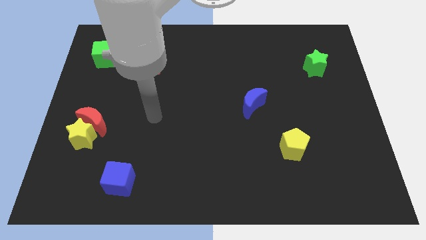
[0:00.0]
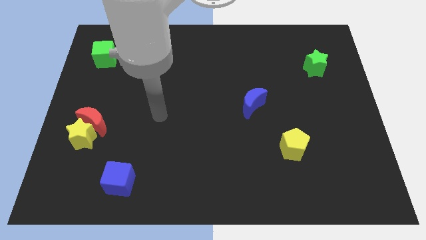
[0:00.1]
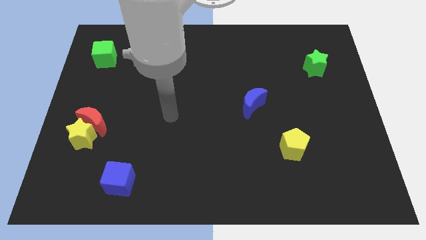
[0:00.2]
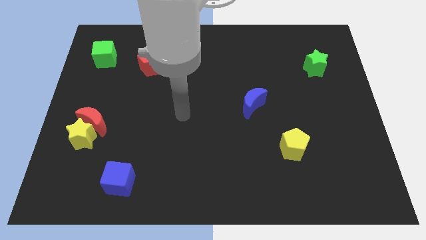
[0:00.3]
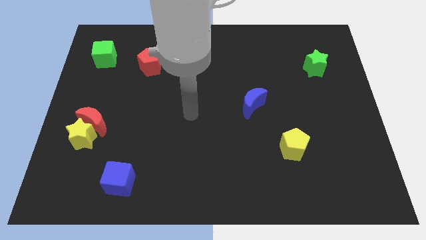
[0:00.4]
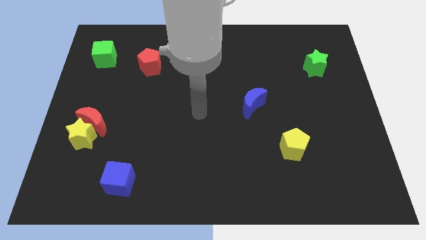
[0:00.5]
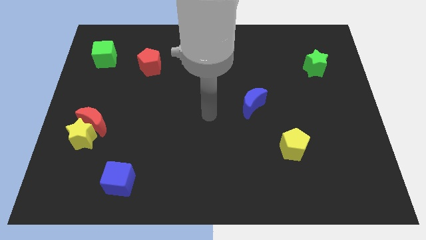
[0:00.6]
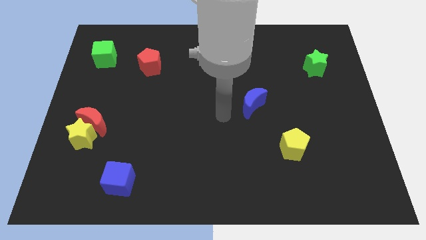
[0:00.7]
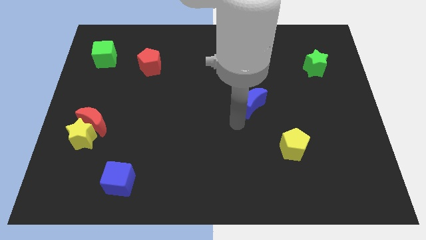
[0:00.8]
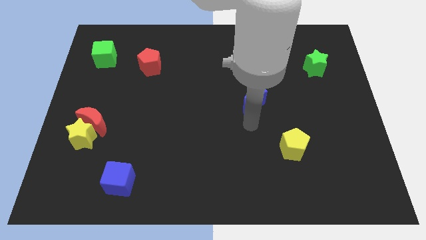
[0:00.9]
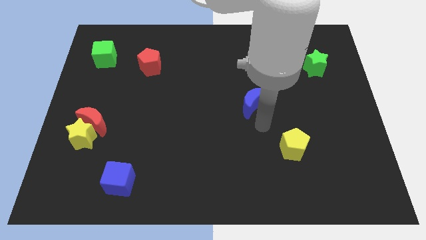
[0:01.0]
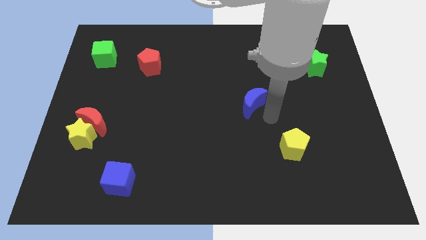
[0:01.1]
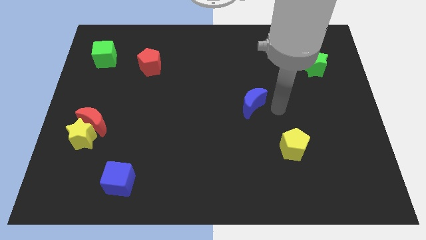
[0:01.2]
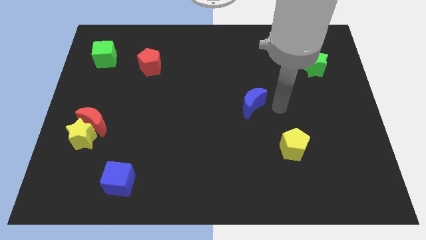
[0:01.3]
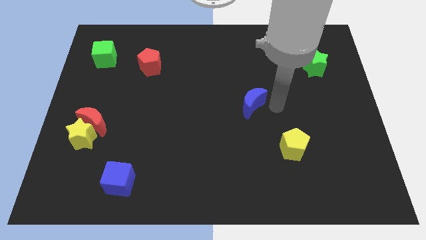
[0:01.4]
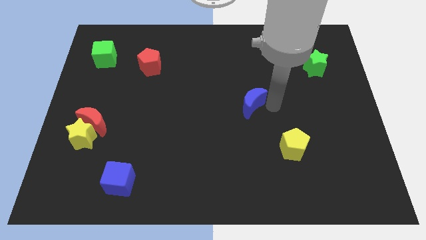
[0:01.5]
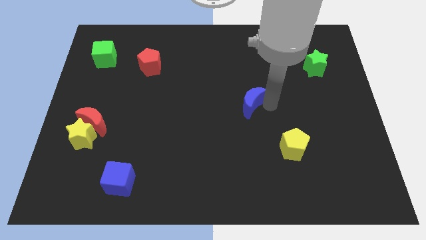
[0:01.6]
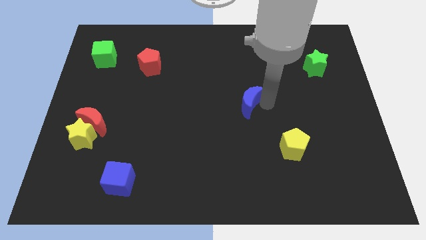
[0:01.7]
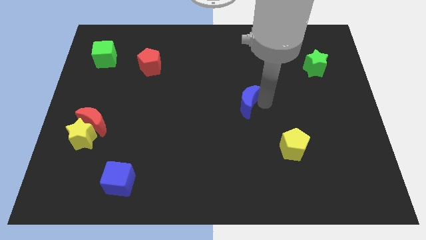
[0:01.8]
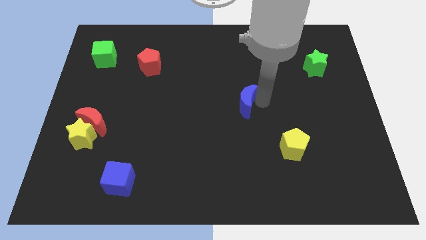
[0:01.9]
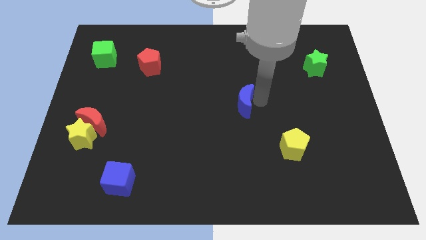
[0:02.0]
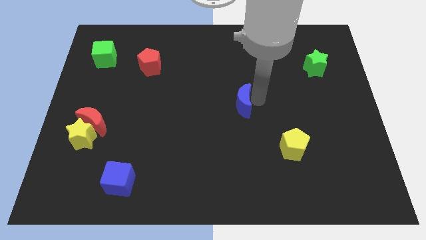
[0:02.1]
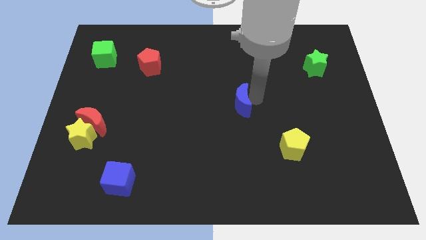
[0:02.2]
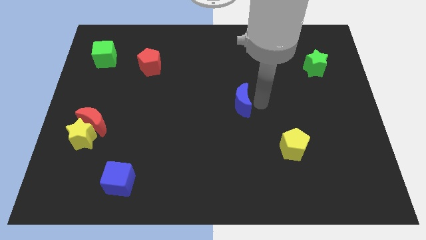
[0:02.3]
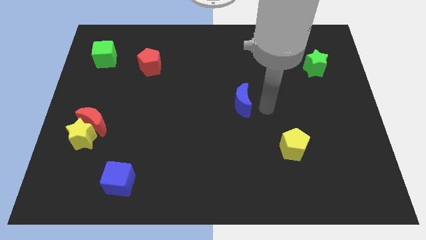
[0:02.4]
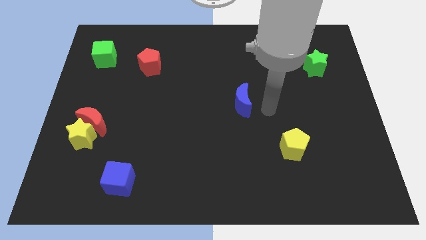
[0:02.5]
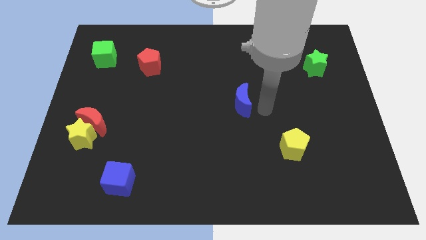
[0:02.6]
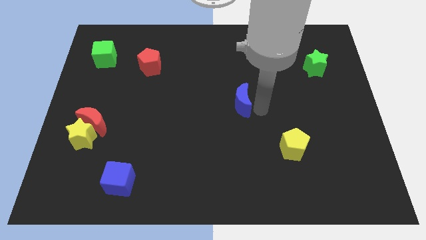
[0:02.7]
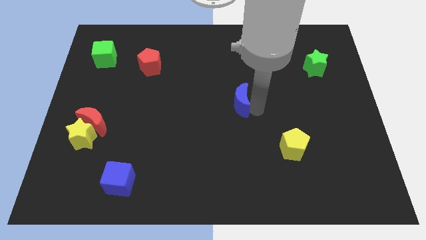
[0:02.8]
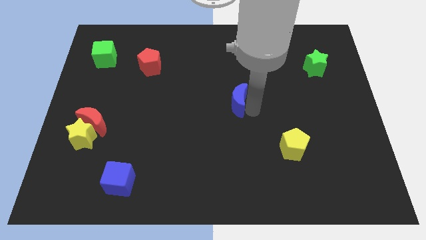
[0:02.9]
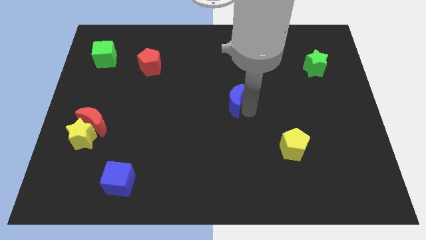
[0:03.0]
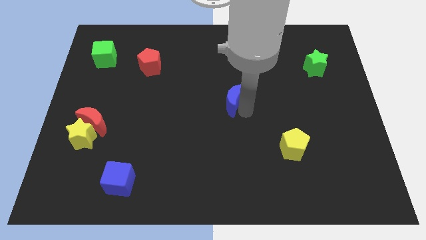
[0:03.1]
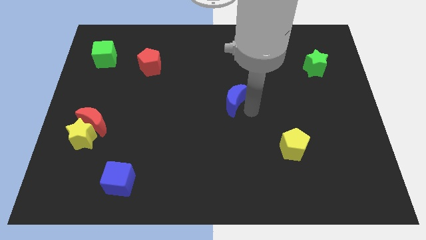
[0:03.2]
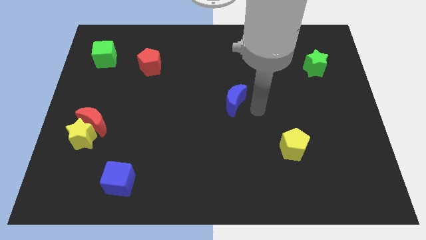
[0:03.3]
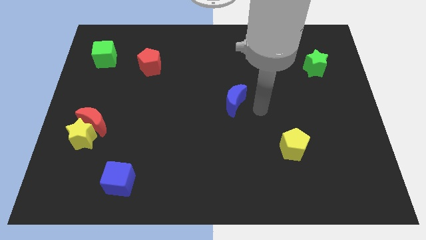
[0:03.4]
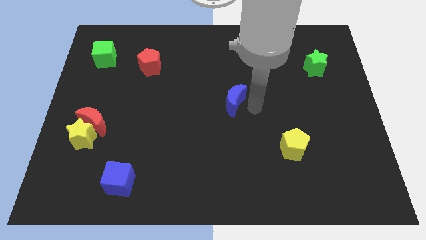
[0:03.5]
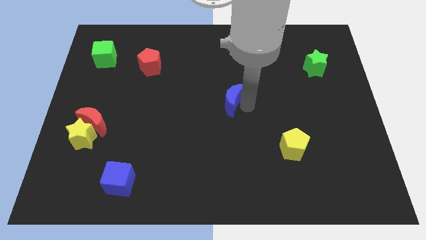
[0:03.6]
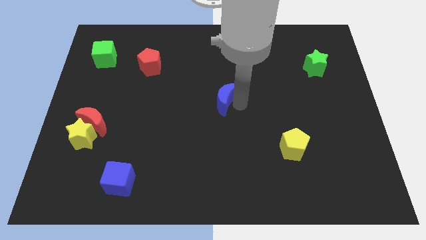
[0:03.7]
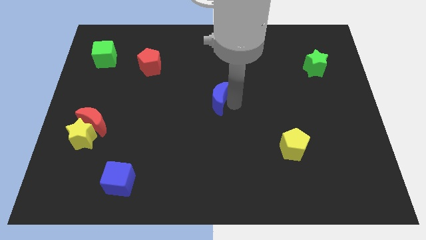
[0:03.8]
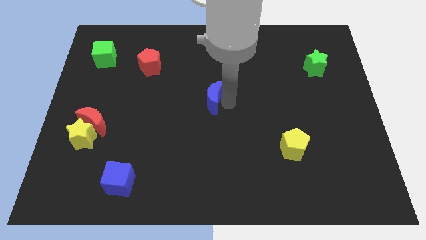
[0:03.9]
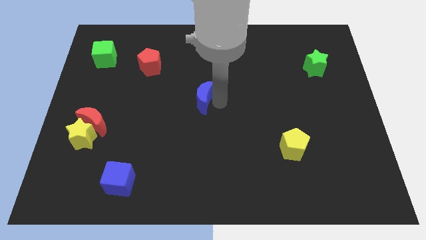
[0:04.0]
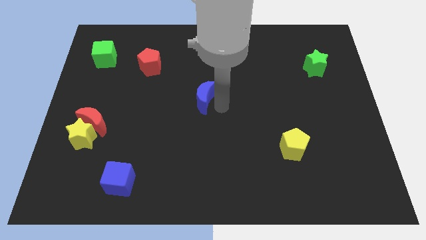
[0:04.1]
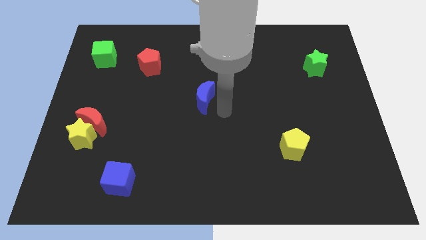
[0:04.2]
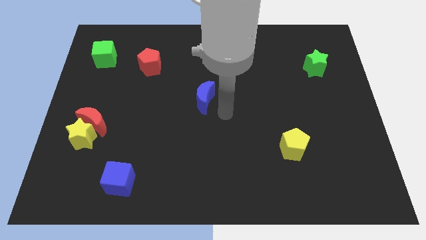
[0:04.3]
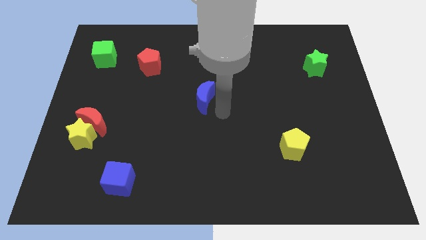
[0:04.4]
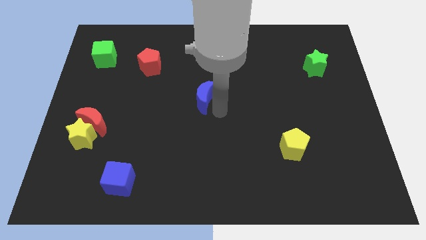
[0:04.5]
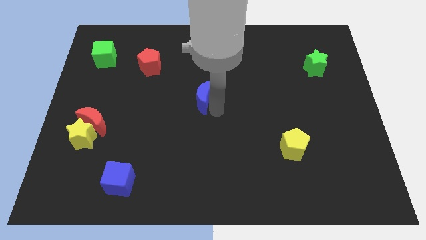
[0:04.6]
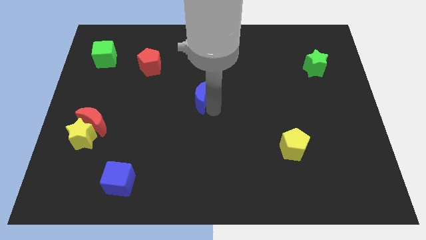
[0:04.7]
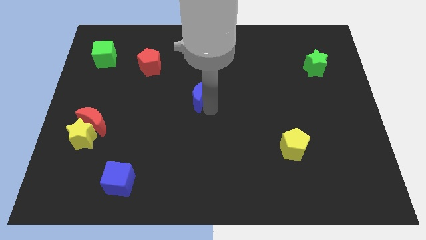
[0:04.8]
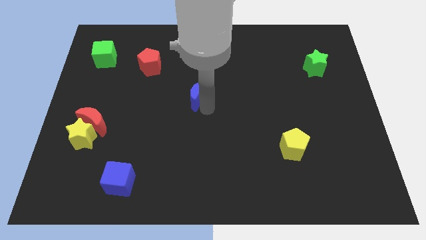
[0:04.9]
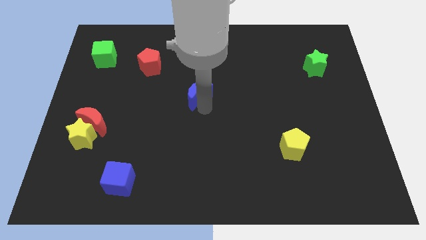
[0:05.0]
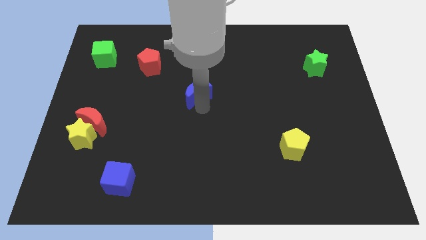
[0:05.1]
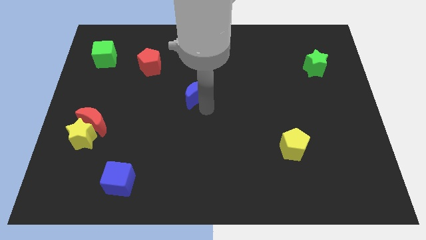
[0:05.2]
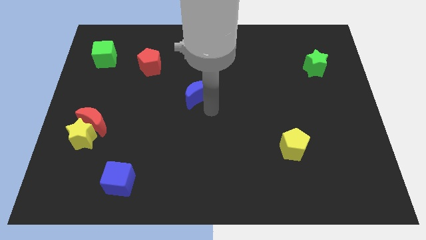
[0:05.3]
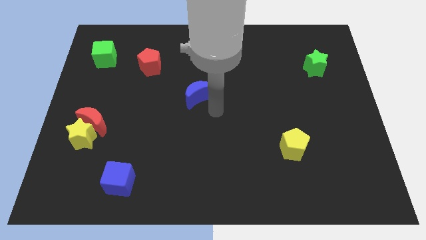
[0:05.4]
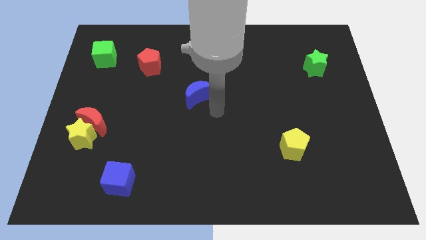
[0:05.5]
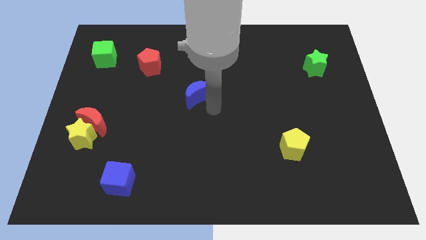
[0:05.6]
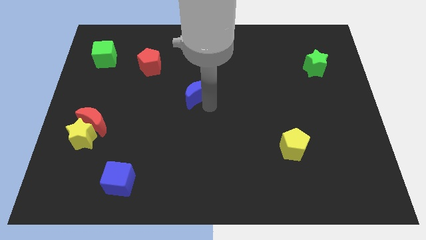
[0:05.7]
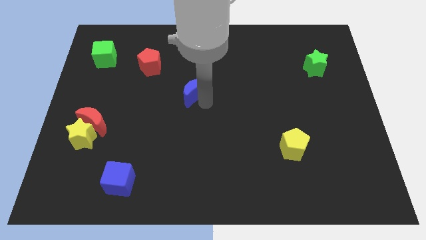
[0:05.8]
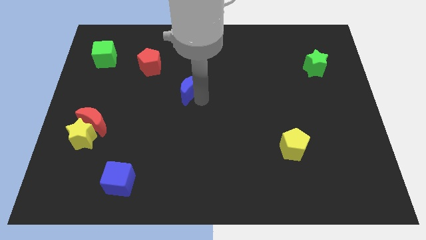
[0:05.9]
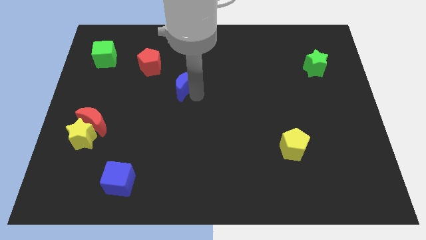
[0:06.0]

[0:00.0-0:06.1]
push the blue moon diagonally down and to the right of the red pentagon

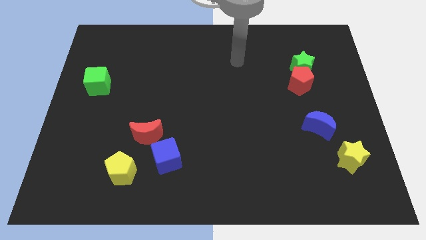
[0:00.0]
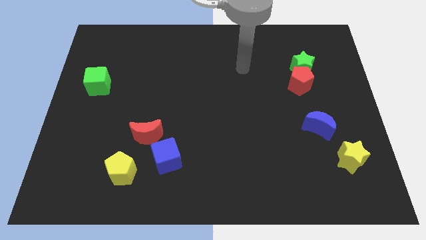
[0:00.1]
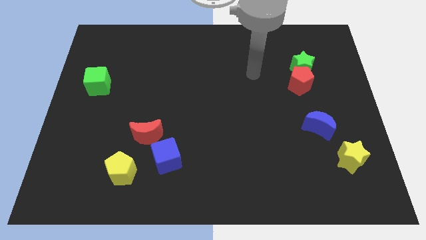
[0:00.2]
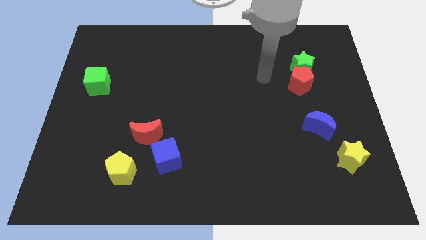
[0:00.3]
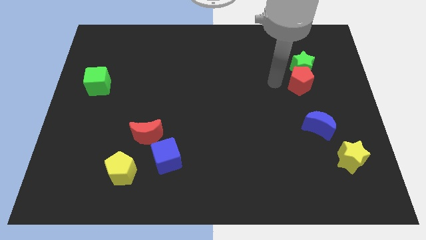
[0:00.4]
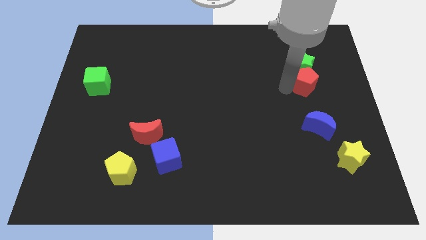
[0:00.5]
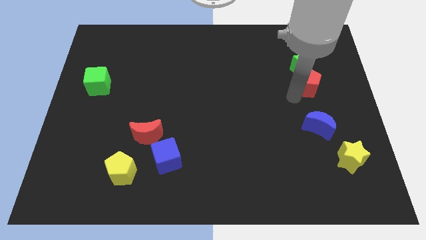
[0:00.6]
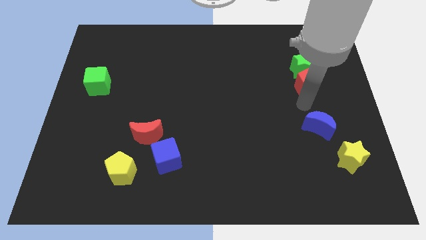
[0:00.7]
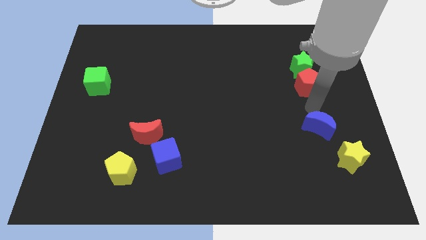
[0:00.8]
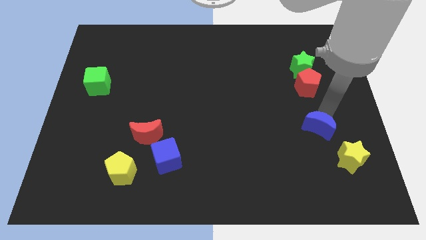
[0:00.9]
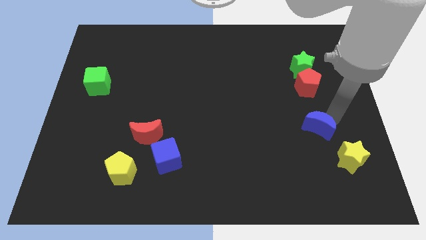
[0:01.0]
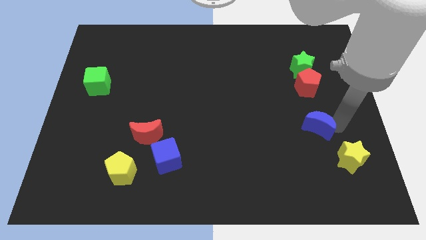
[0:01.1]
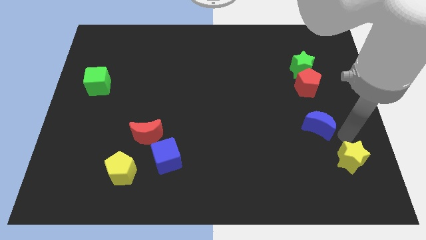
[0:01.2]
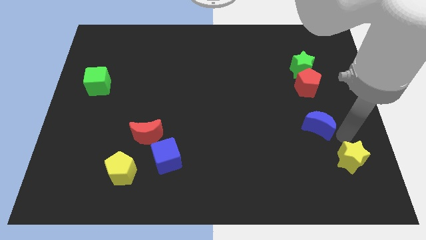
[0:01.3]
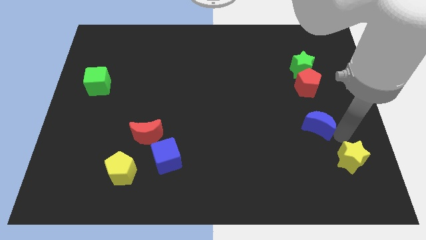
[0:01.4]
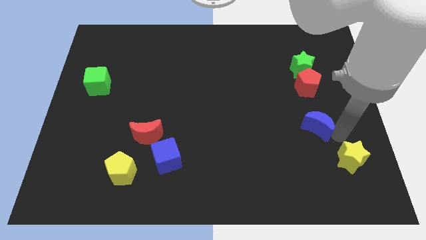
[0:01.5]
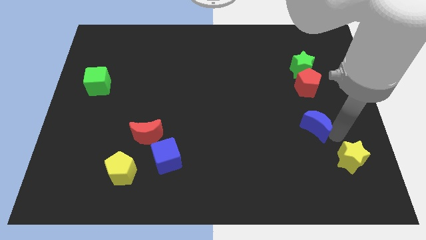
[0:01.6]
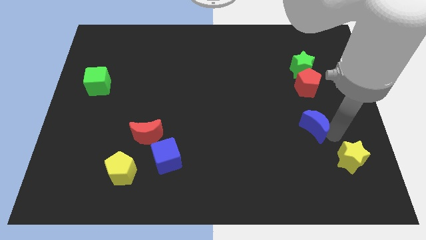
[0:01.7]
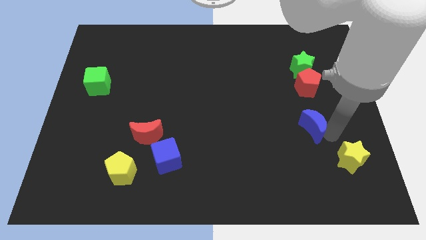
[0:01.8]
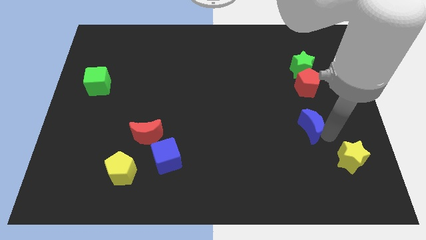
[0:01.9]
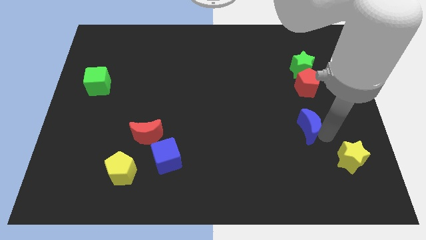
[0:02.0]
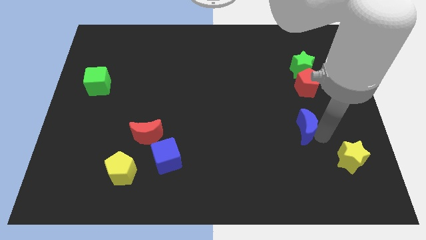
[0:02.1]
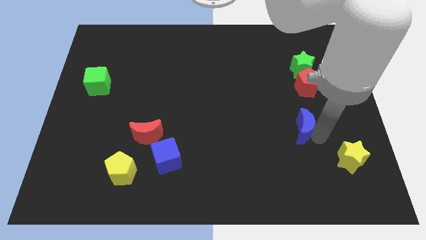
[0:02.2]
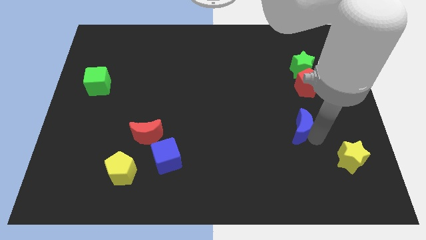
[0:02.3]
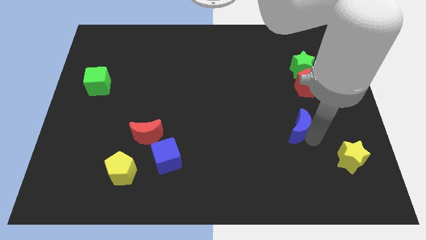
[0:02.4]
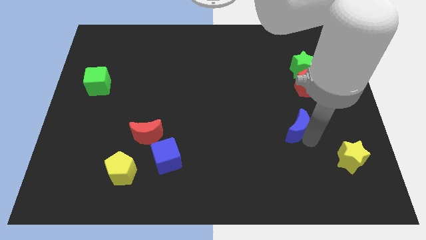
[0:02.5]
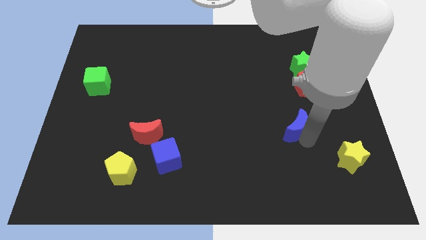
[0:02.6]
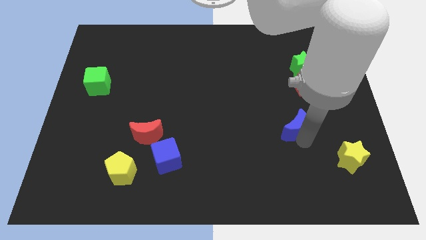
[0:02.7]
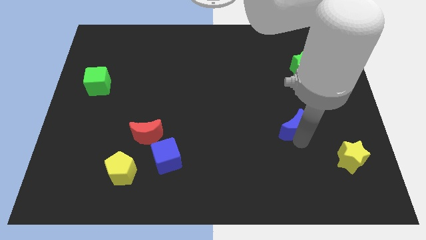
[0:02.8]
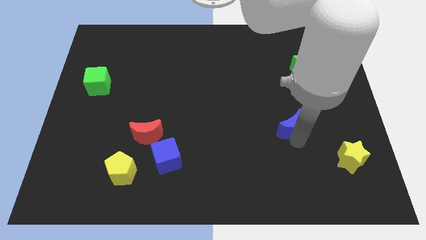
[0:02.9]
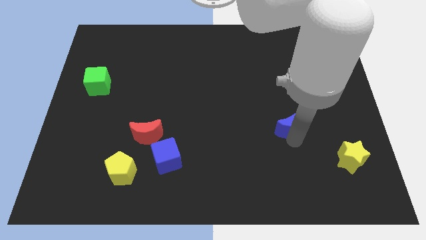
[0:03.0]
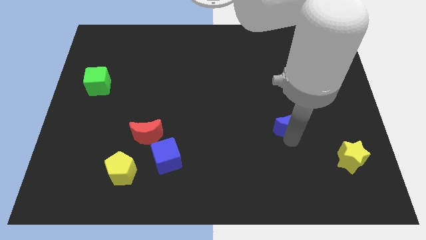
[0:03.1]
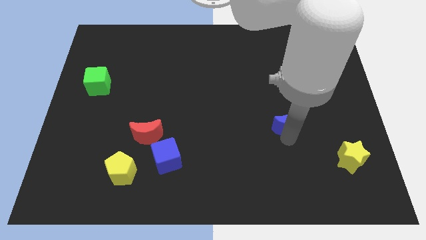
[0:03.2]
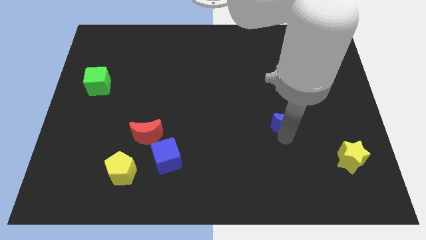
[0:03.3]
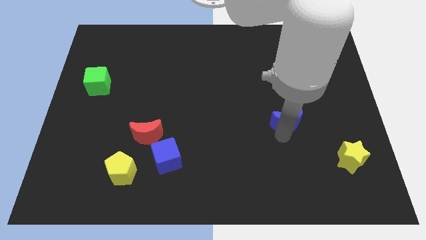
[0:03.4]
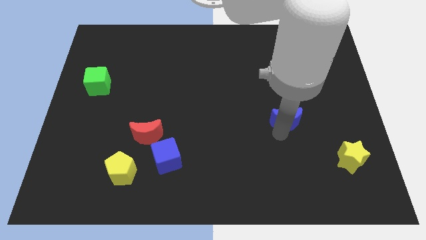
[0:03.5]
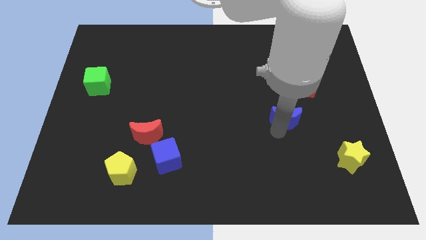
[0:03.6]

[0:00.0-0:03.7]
push the blue moon to the bottom left side of the red pentagon
